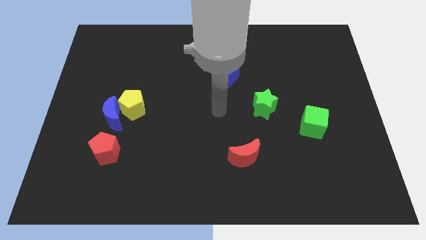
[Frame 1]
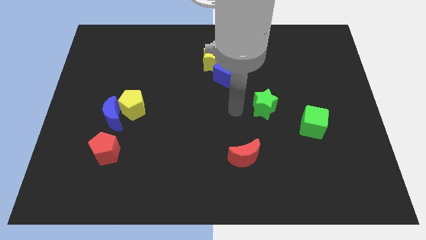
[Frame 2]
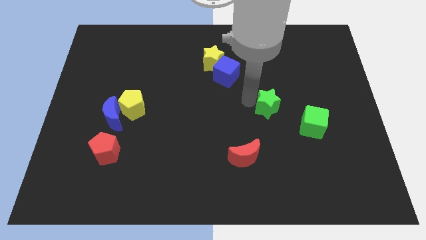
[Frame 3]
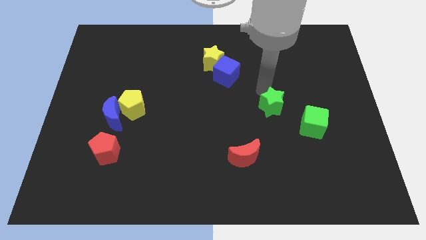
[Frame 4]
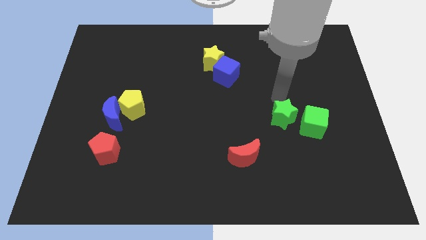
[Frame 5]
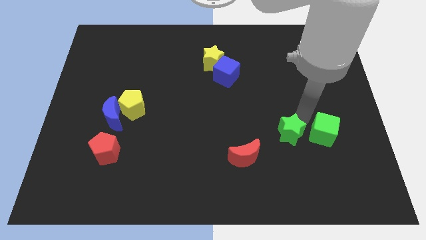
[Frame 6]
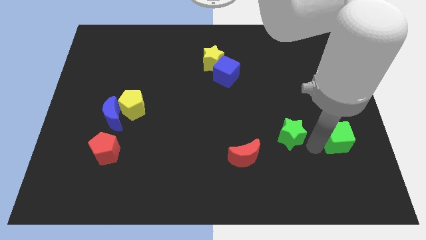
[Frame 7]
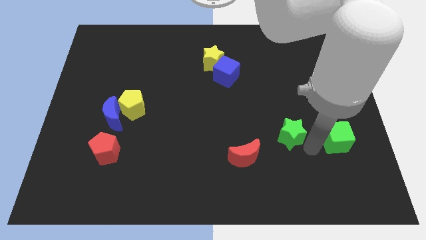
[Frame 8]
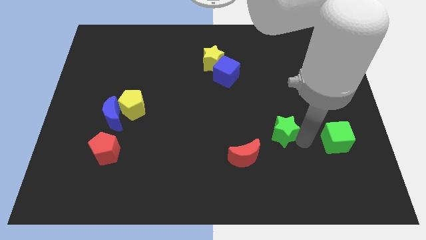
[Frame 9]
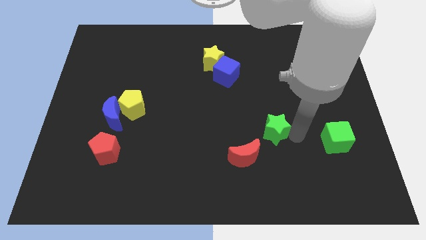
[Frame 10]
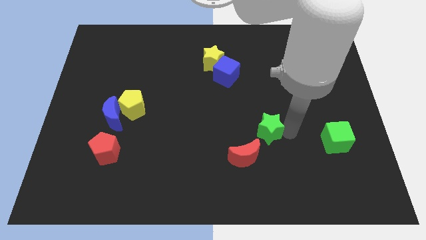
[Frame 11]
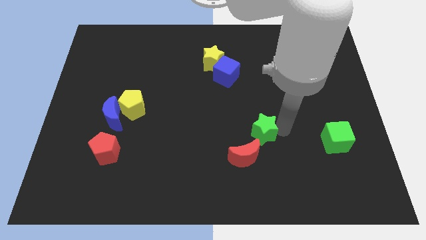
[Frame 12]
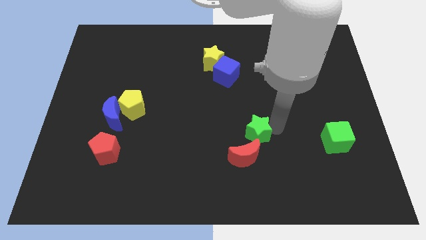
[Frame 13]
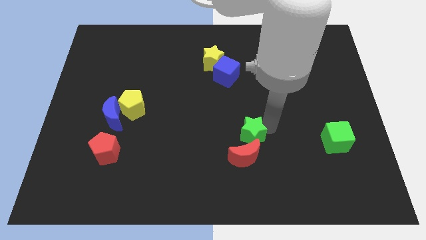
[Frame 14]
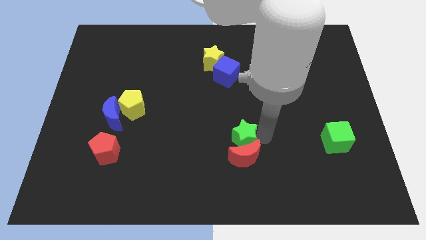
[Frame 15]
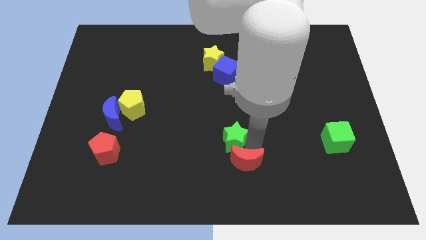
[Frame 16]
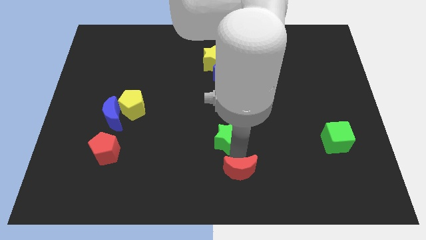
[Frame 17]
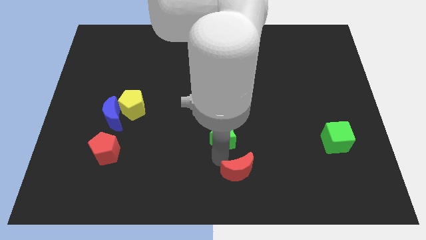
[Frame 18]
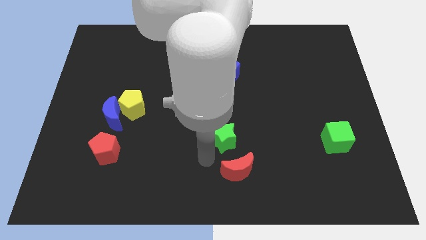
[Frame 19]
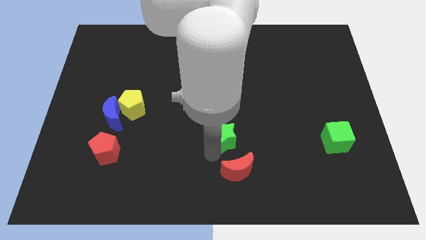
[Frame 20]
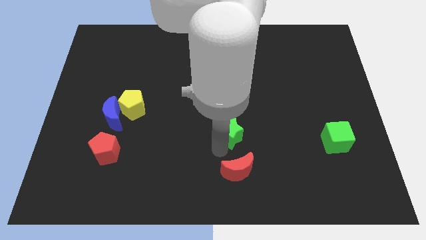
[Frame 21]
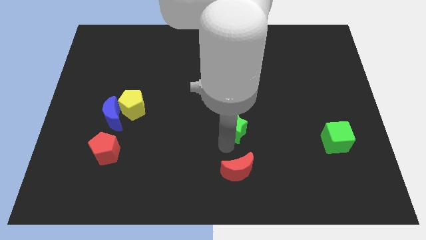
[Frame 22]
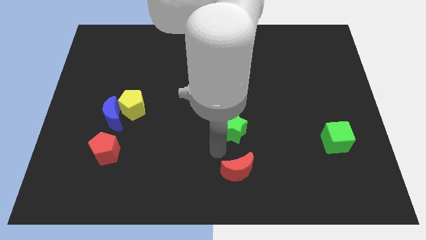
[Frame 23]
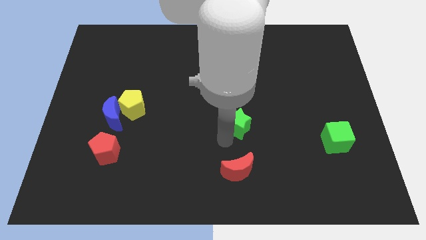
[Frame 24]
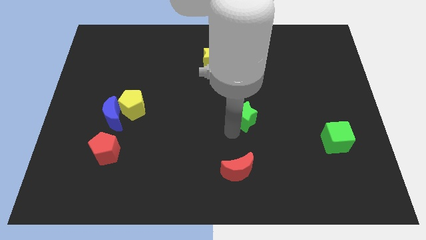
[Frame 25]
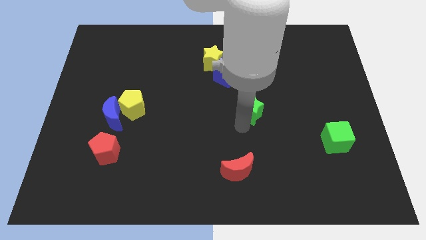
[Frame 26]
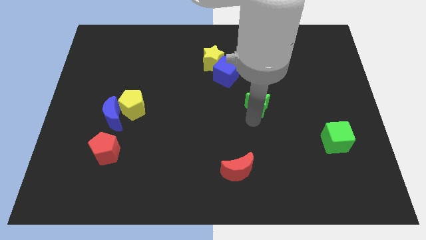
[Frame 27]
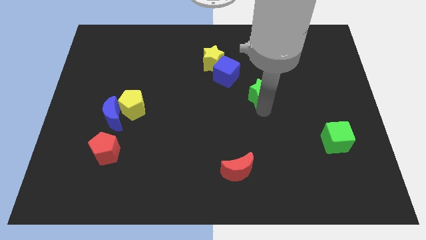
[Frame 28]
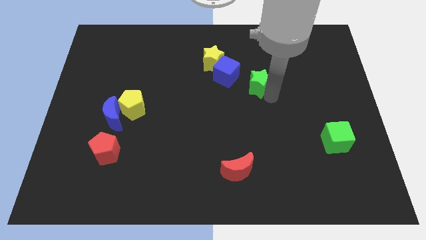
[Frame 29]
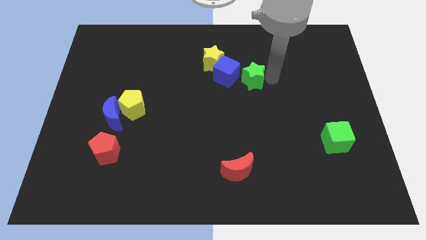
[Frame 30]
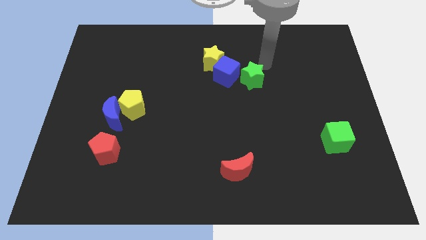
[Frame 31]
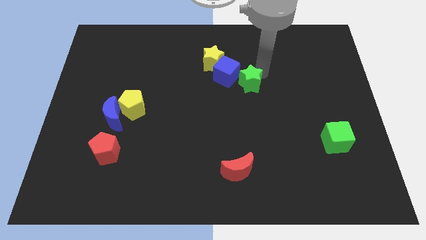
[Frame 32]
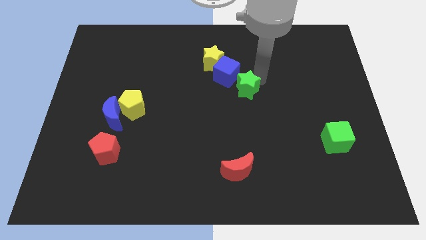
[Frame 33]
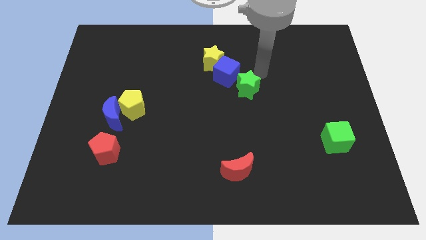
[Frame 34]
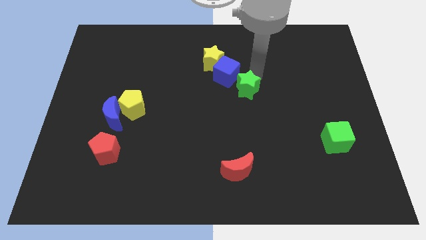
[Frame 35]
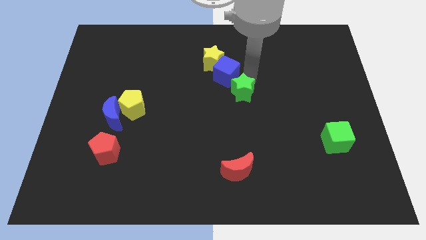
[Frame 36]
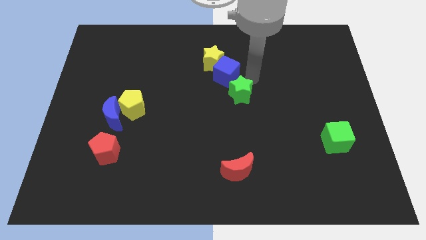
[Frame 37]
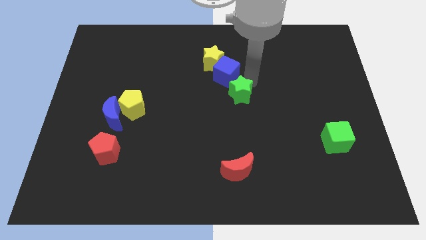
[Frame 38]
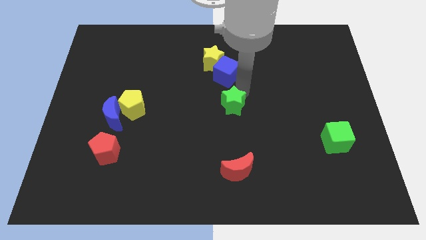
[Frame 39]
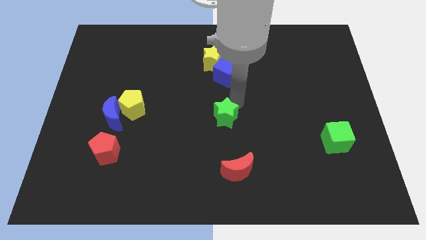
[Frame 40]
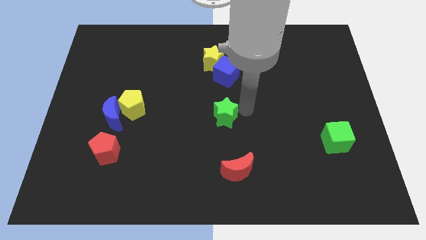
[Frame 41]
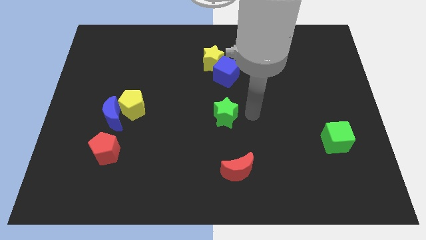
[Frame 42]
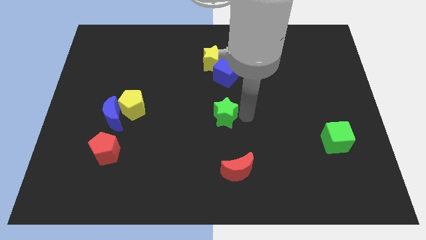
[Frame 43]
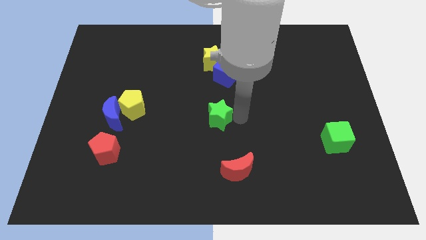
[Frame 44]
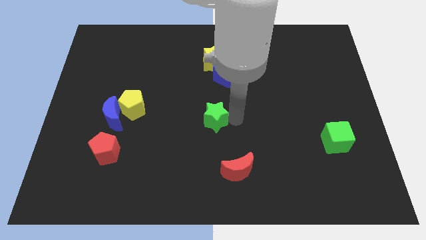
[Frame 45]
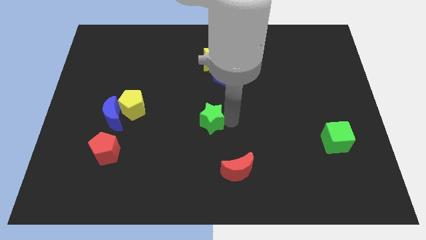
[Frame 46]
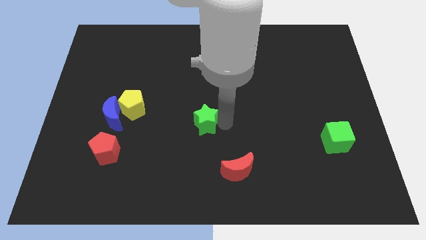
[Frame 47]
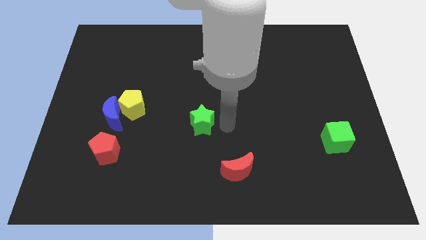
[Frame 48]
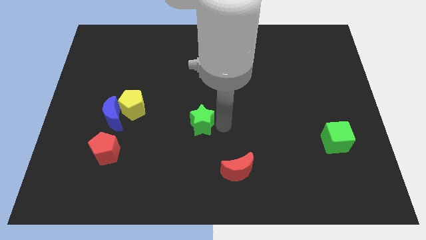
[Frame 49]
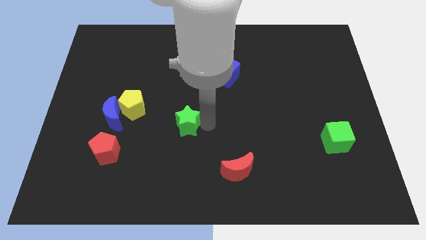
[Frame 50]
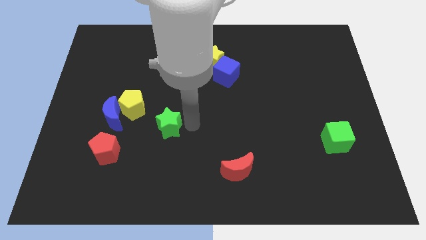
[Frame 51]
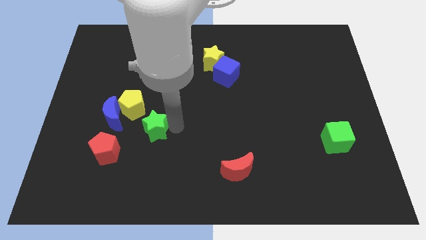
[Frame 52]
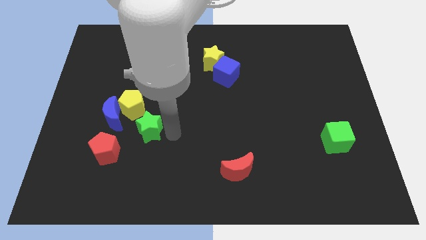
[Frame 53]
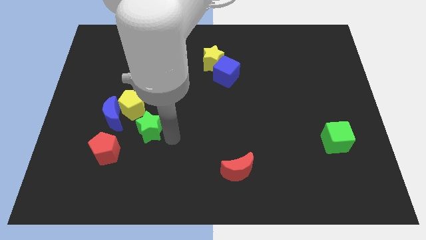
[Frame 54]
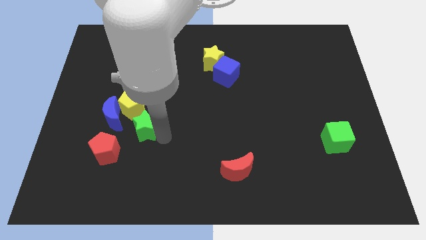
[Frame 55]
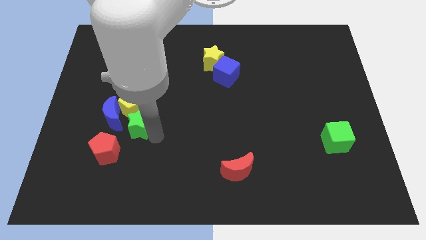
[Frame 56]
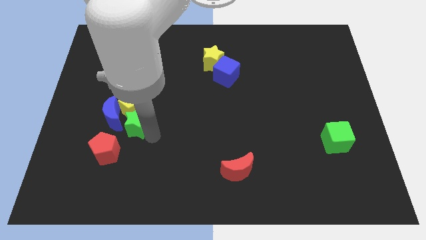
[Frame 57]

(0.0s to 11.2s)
move the green star towards the blue moon

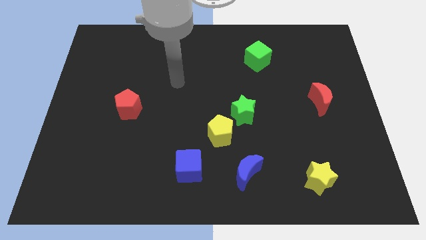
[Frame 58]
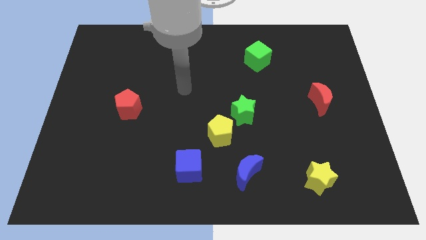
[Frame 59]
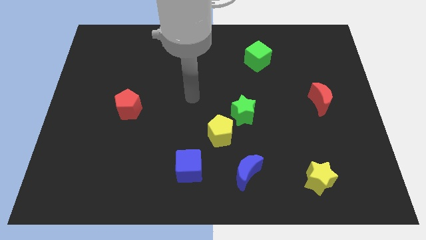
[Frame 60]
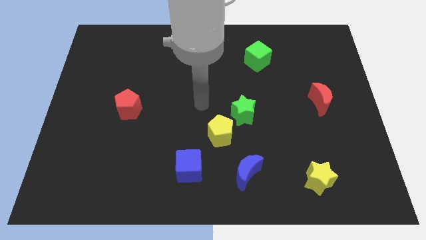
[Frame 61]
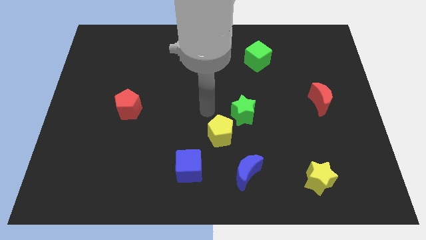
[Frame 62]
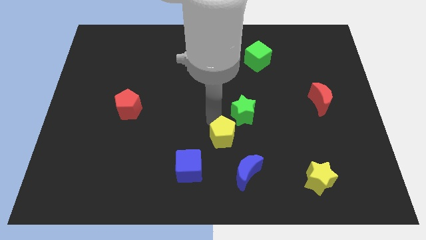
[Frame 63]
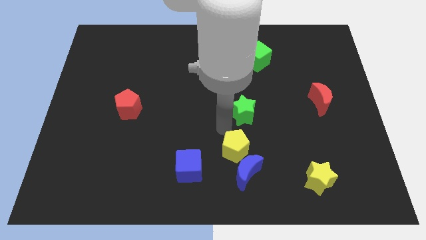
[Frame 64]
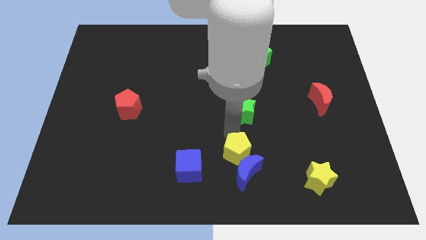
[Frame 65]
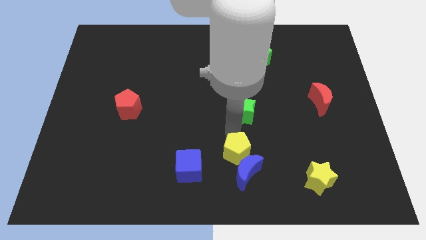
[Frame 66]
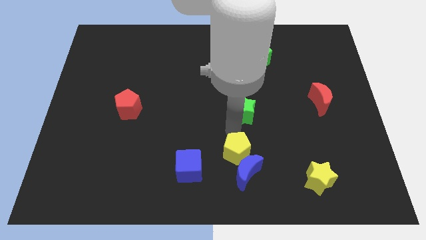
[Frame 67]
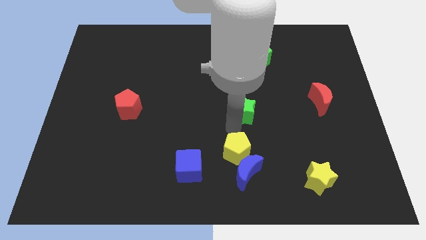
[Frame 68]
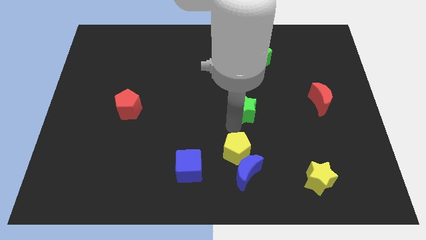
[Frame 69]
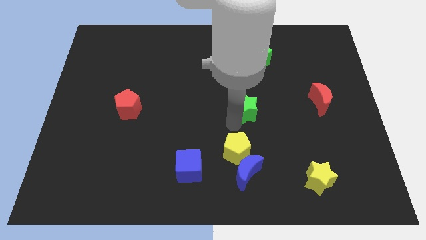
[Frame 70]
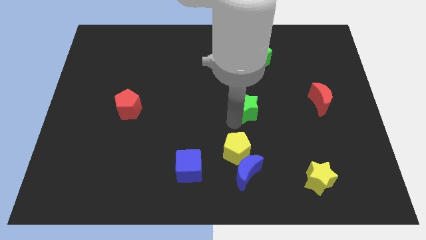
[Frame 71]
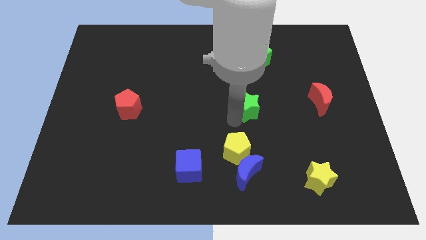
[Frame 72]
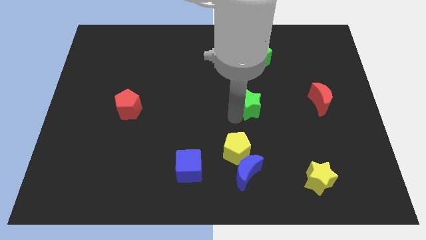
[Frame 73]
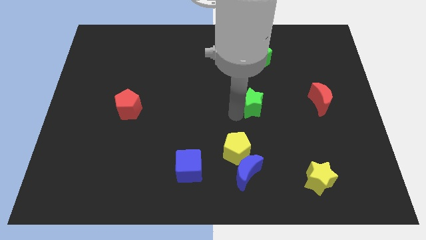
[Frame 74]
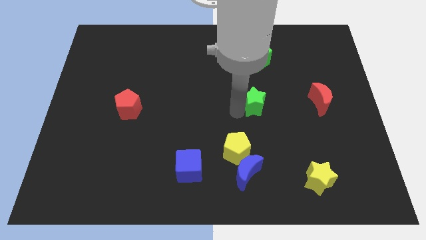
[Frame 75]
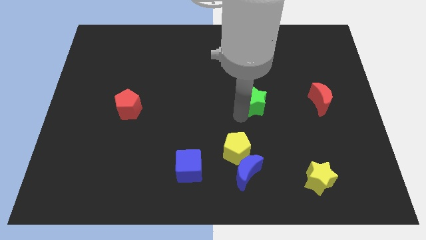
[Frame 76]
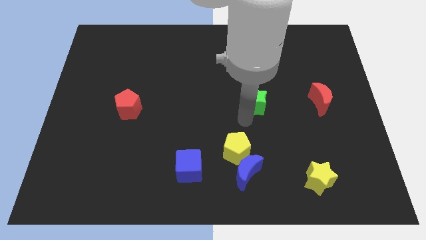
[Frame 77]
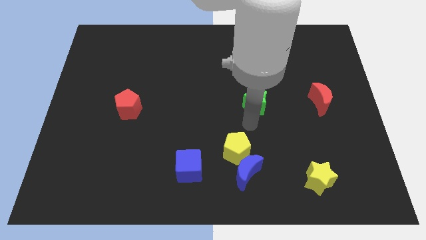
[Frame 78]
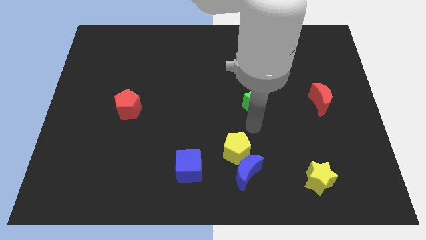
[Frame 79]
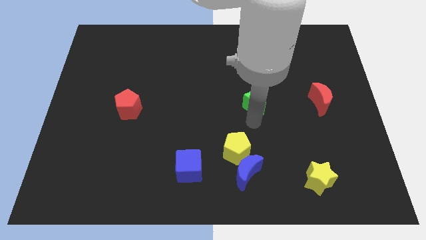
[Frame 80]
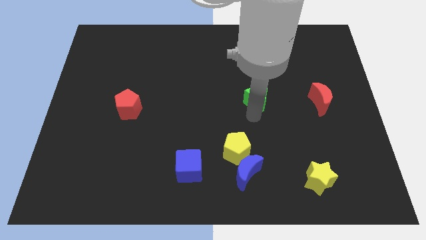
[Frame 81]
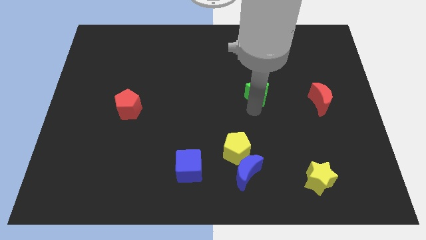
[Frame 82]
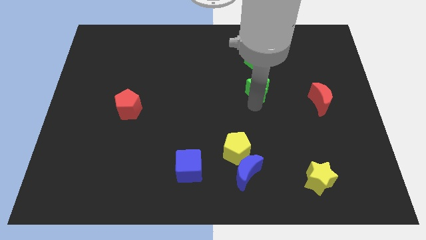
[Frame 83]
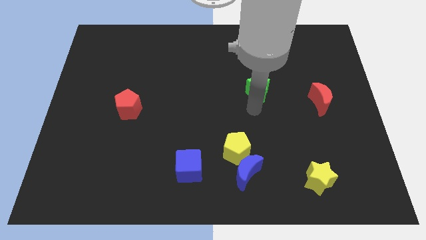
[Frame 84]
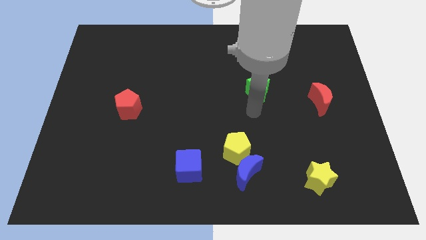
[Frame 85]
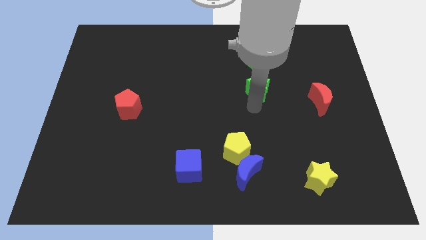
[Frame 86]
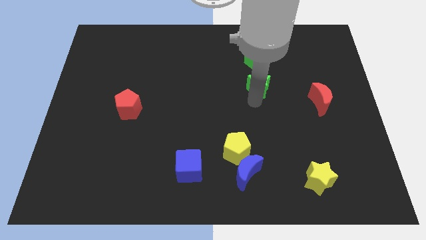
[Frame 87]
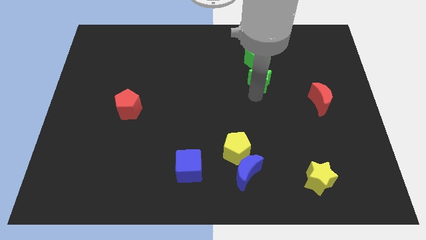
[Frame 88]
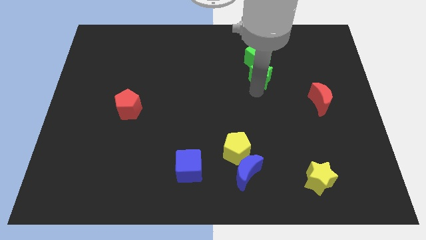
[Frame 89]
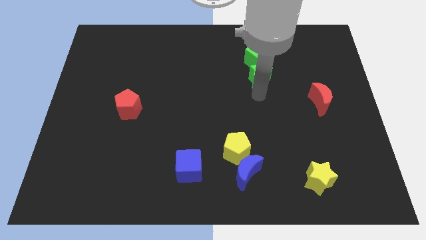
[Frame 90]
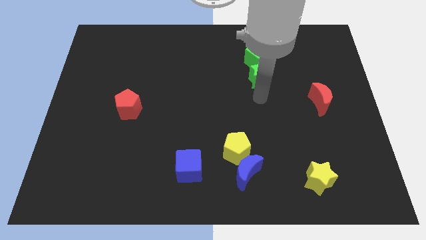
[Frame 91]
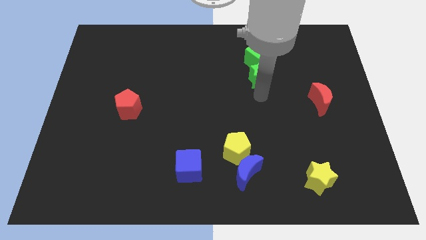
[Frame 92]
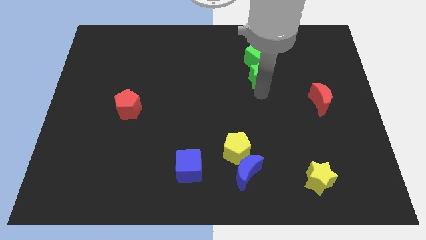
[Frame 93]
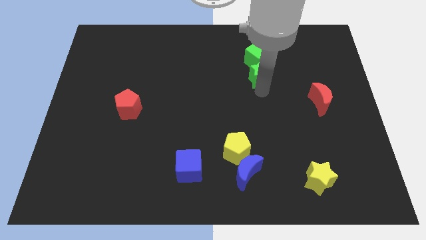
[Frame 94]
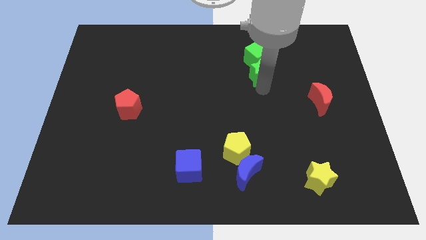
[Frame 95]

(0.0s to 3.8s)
put the green star next to the green cube
